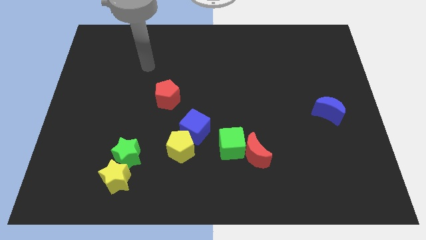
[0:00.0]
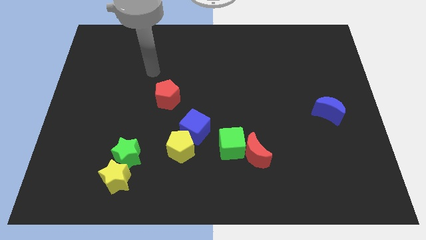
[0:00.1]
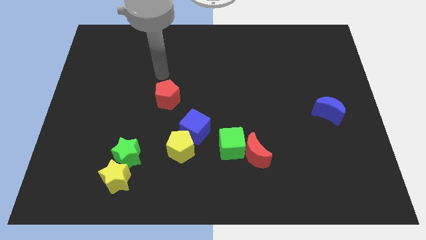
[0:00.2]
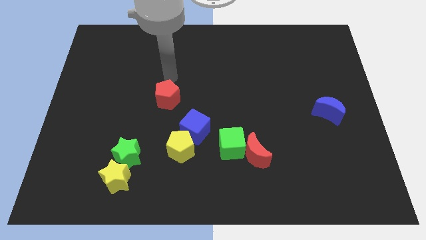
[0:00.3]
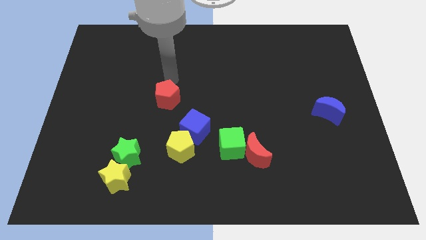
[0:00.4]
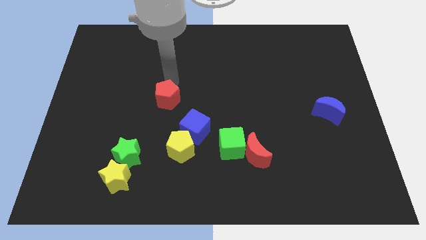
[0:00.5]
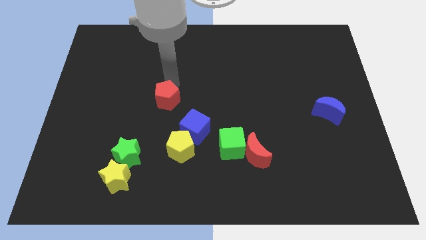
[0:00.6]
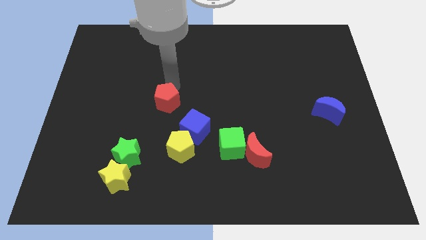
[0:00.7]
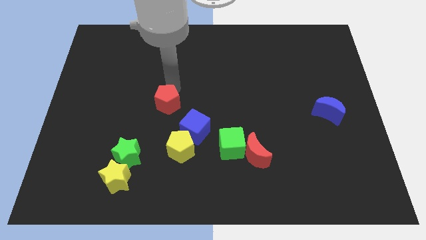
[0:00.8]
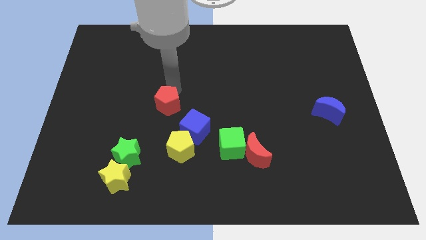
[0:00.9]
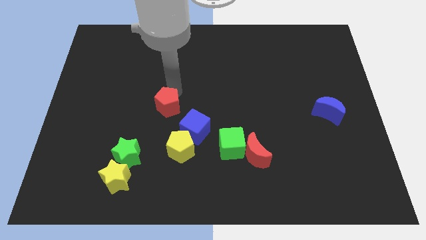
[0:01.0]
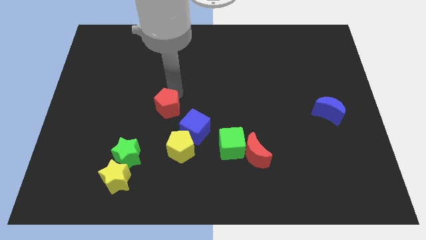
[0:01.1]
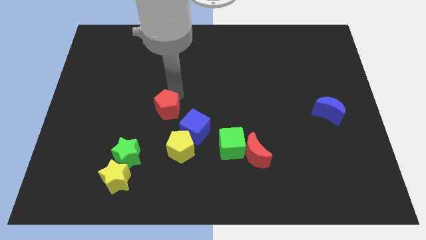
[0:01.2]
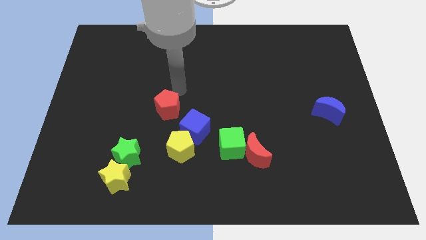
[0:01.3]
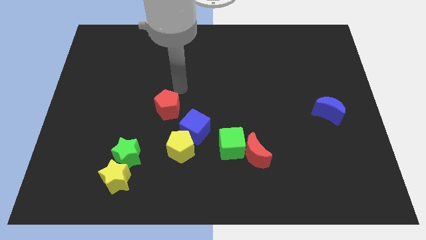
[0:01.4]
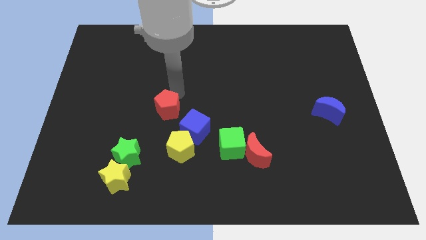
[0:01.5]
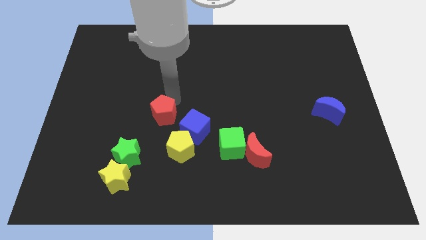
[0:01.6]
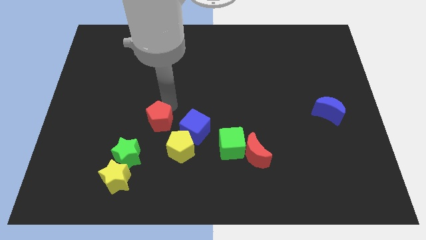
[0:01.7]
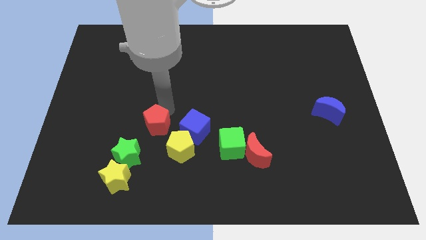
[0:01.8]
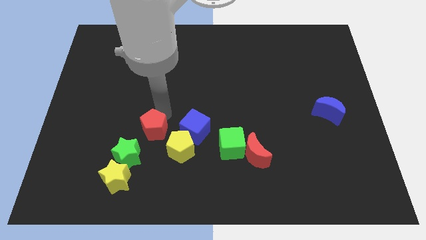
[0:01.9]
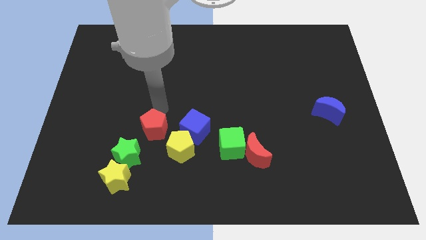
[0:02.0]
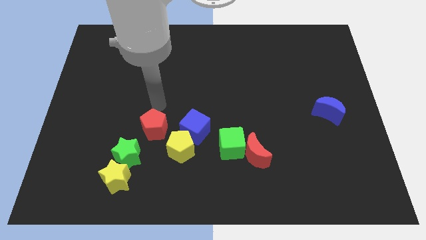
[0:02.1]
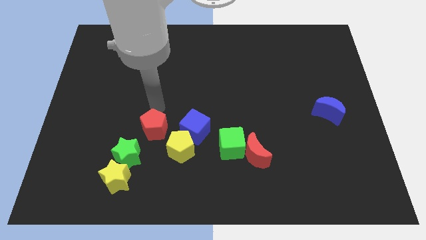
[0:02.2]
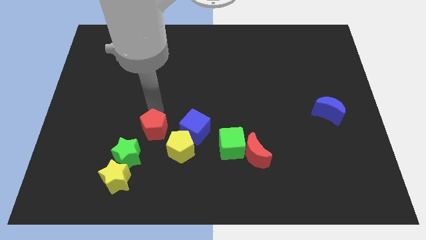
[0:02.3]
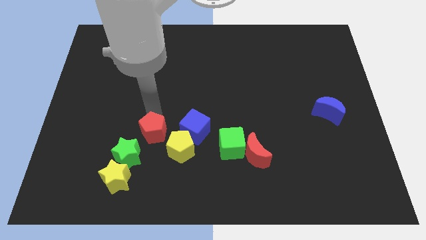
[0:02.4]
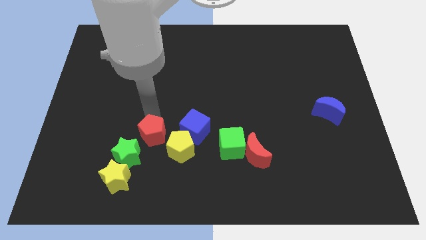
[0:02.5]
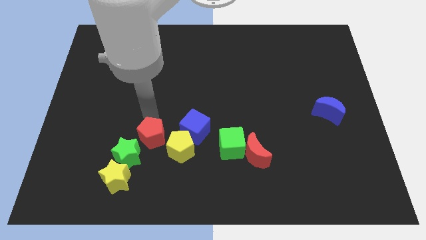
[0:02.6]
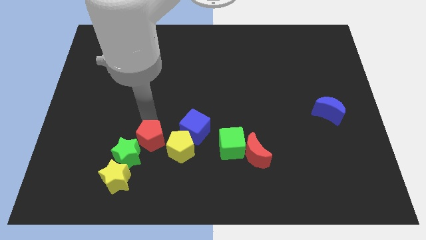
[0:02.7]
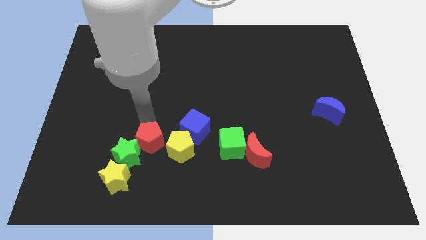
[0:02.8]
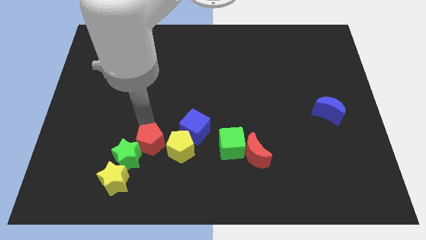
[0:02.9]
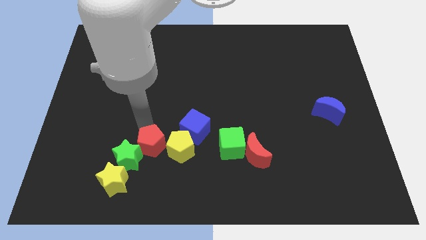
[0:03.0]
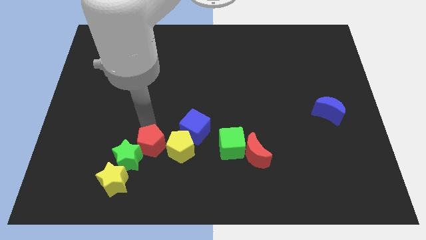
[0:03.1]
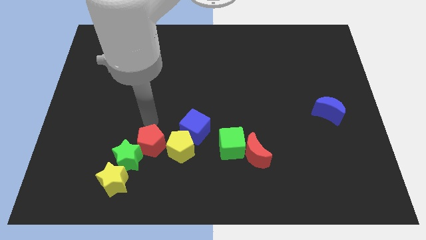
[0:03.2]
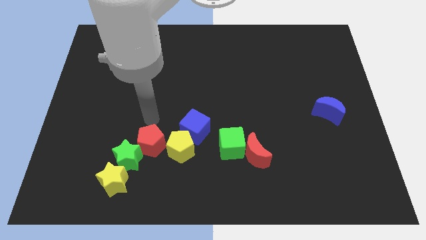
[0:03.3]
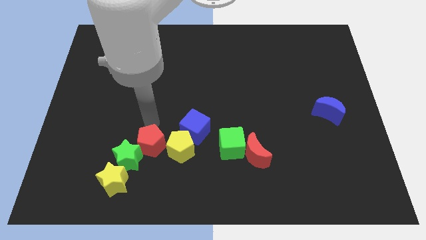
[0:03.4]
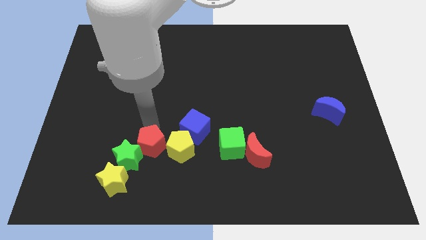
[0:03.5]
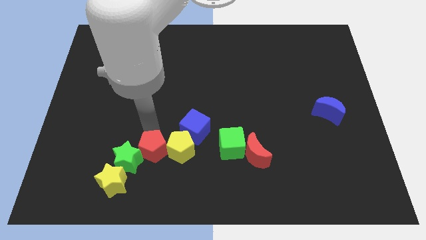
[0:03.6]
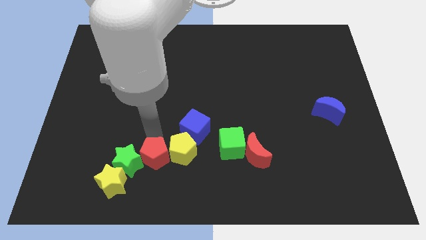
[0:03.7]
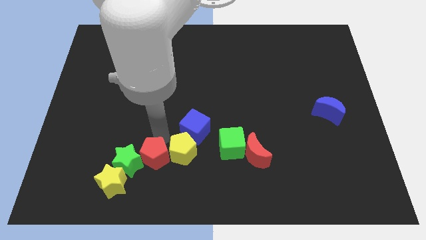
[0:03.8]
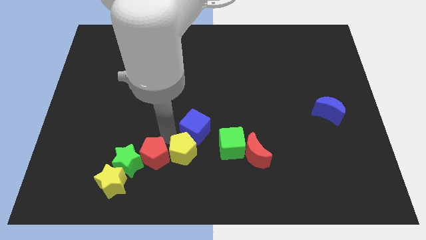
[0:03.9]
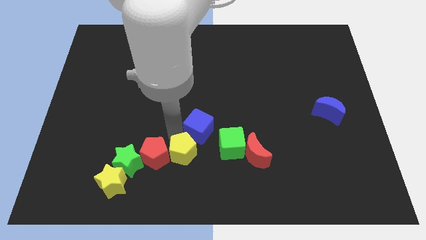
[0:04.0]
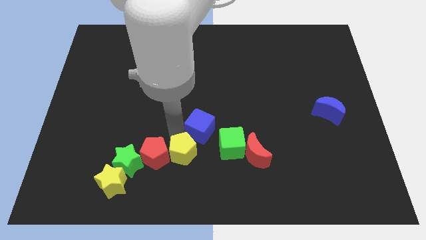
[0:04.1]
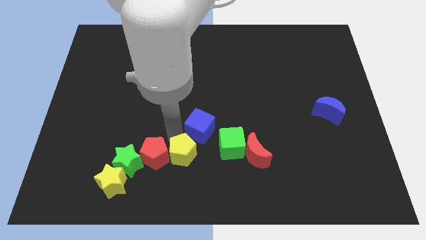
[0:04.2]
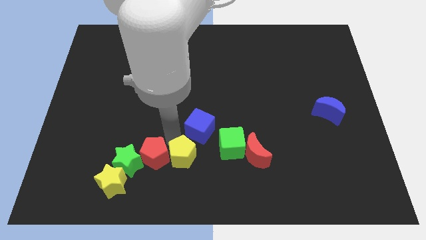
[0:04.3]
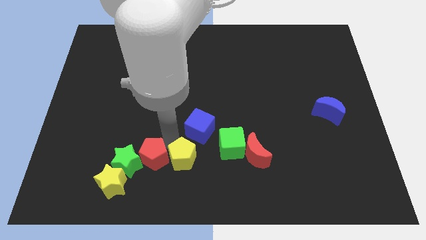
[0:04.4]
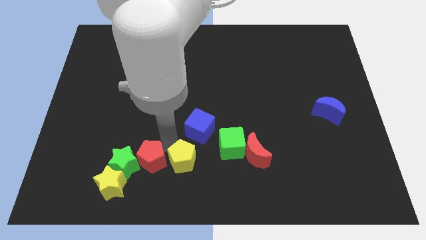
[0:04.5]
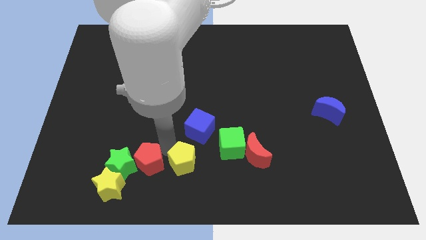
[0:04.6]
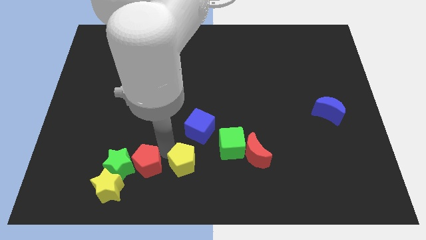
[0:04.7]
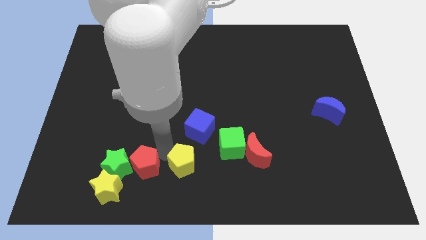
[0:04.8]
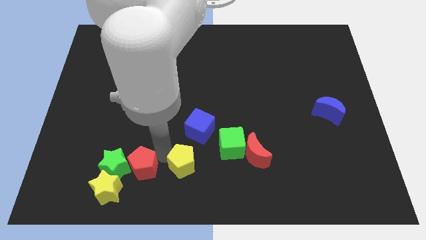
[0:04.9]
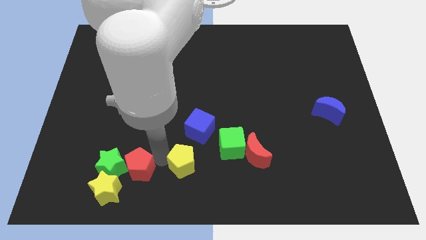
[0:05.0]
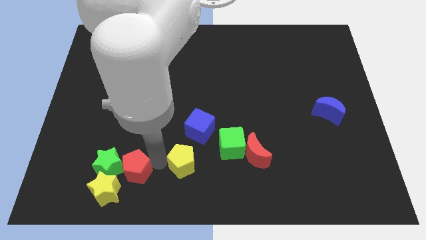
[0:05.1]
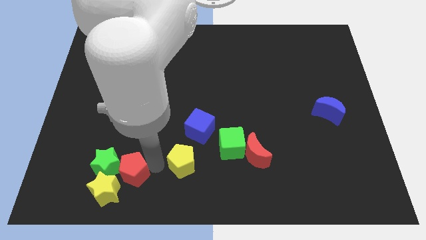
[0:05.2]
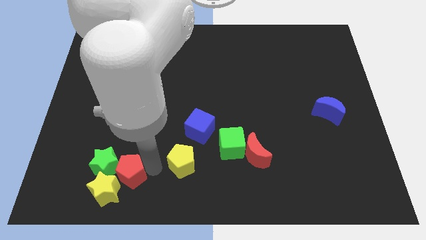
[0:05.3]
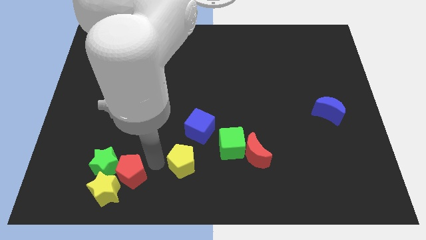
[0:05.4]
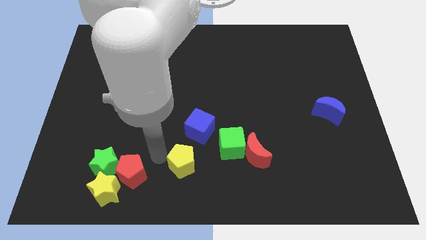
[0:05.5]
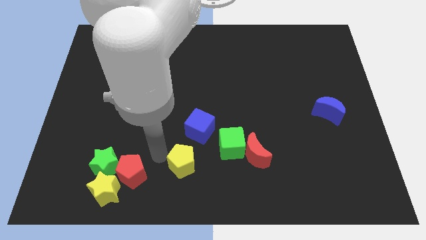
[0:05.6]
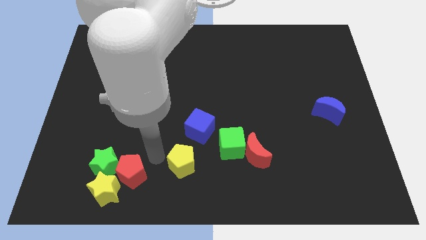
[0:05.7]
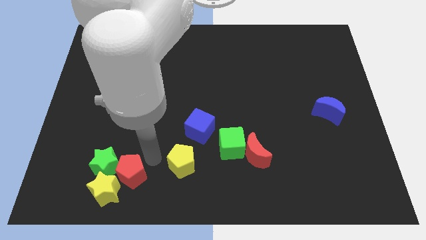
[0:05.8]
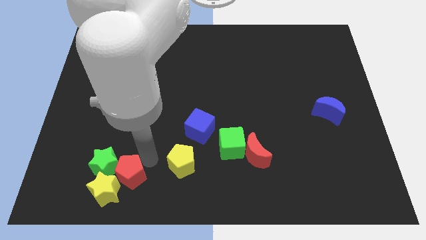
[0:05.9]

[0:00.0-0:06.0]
put the red pentagon to the yellow star

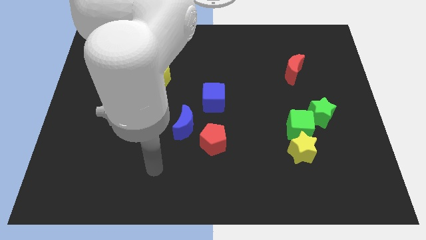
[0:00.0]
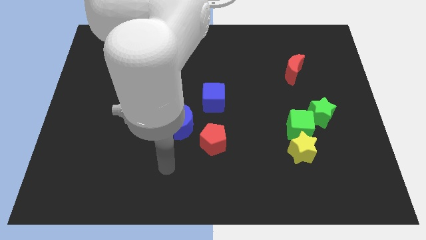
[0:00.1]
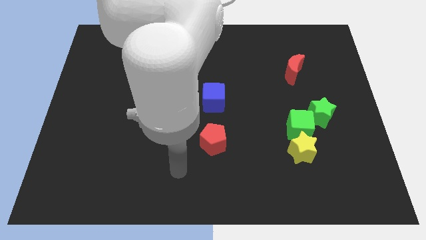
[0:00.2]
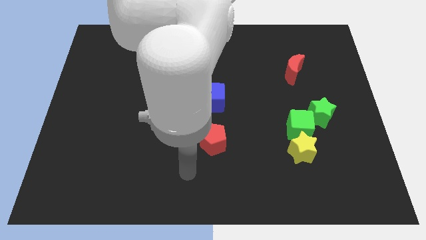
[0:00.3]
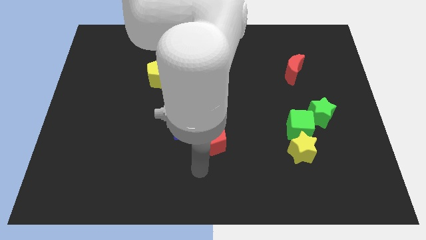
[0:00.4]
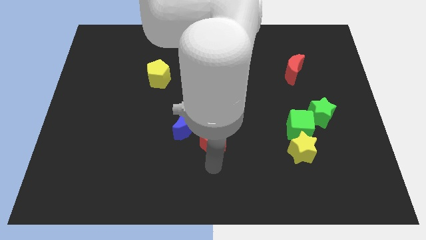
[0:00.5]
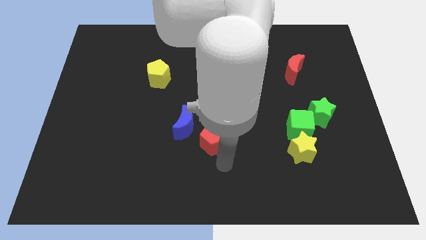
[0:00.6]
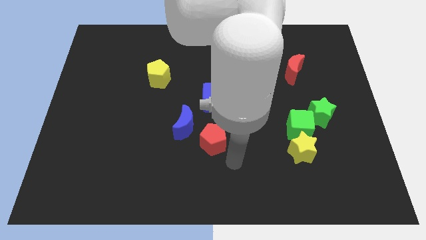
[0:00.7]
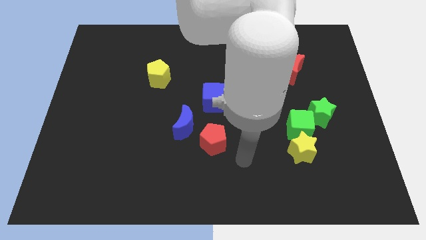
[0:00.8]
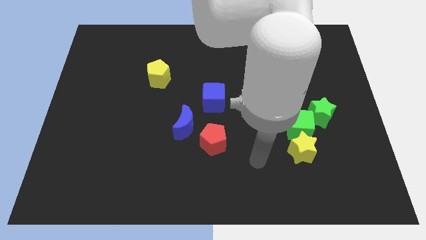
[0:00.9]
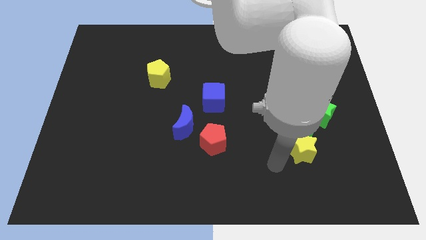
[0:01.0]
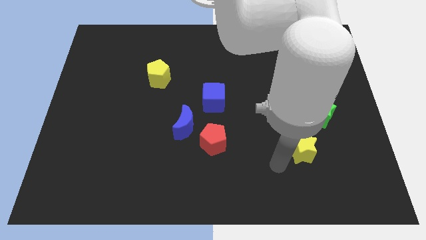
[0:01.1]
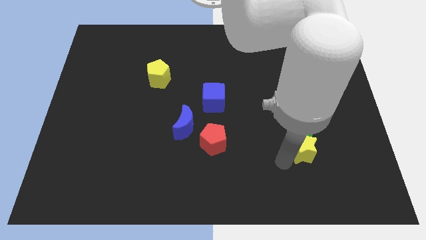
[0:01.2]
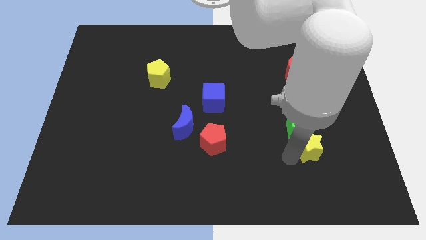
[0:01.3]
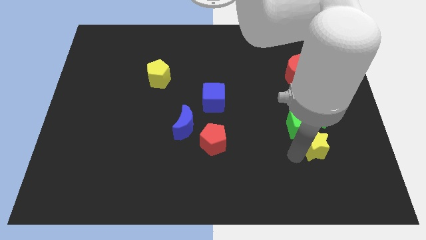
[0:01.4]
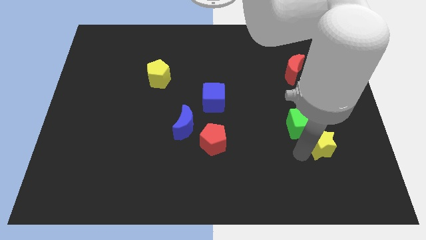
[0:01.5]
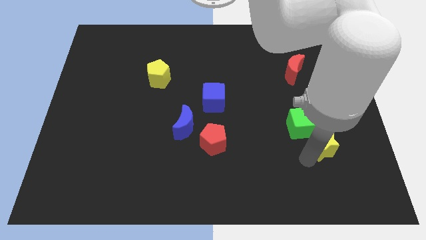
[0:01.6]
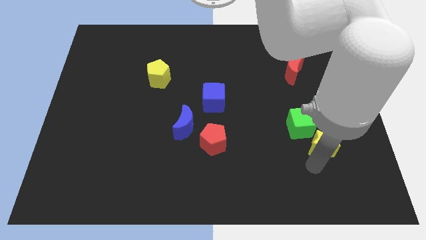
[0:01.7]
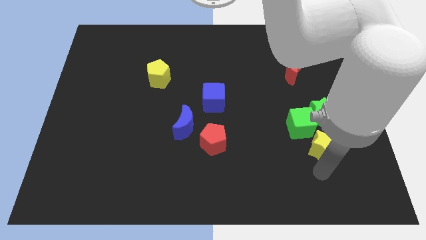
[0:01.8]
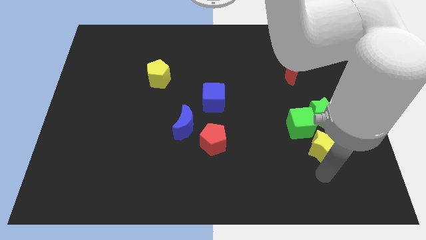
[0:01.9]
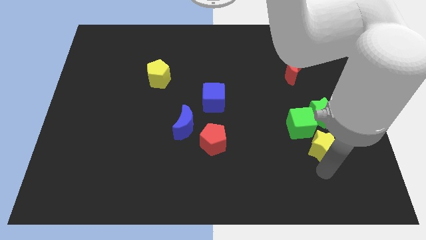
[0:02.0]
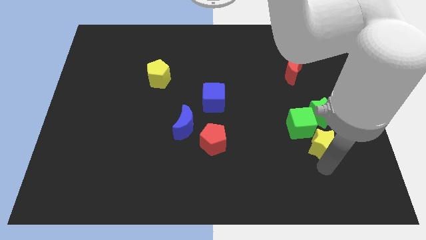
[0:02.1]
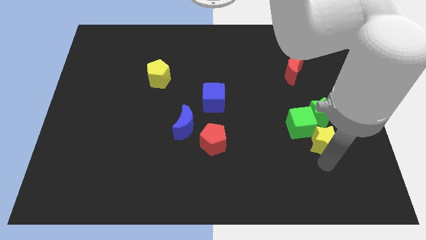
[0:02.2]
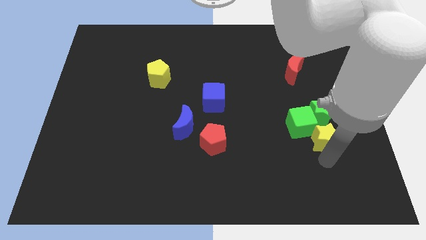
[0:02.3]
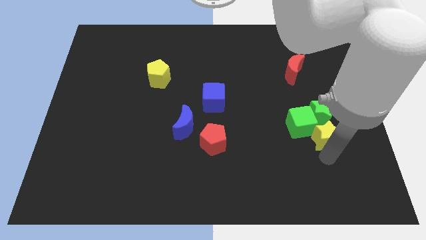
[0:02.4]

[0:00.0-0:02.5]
put the yellow star towards the green star
